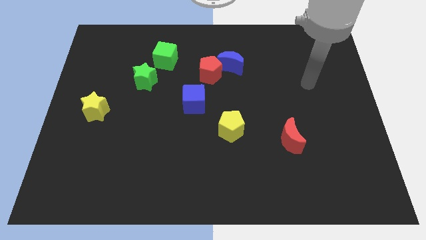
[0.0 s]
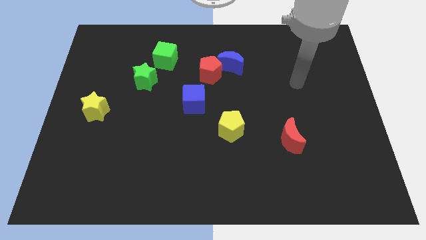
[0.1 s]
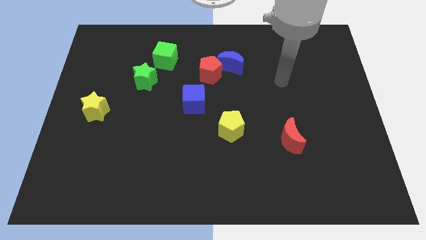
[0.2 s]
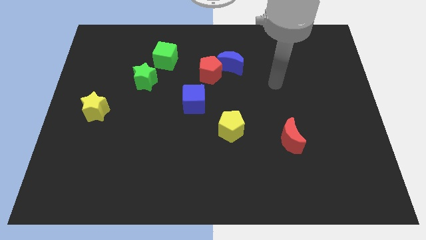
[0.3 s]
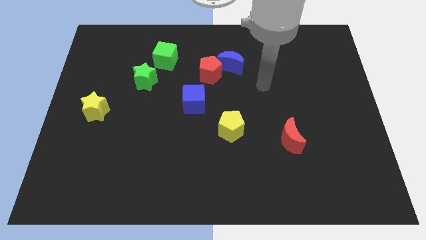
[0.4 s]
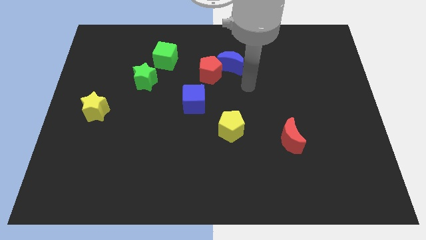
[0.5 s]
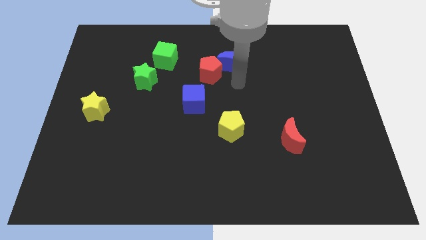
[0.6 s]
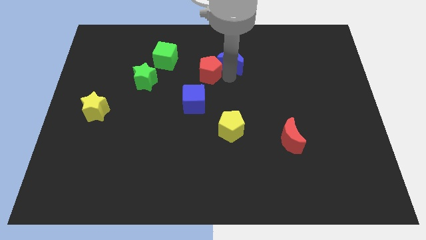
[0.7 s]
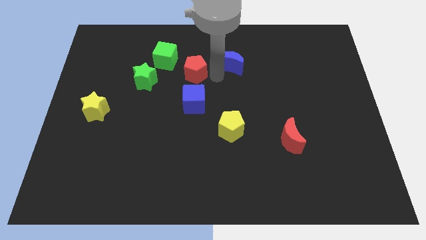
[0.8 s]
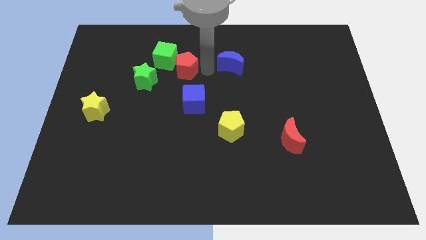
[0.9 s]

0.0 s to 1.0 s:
pull the blue moon apart from the red pentagon

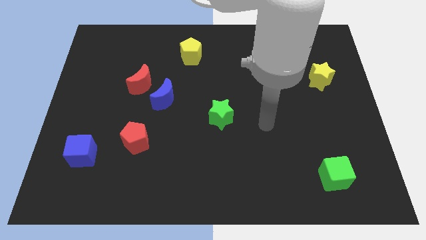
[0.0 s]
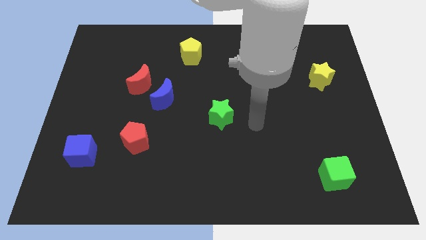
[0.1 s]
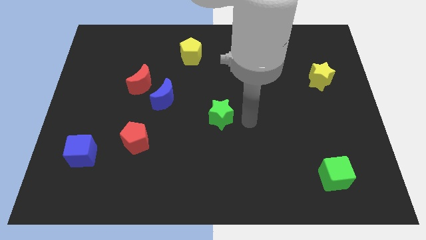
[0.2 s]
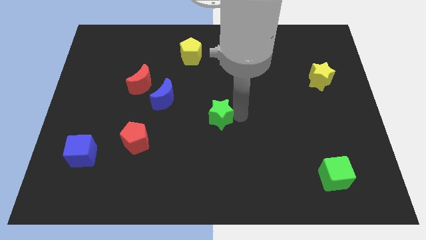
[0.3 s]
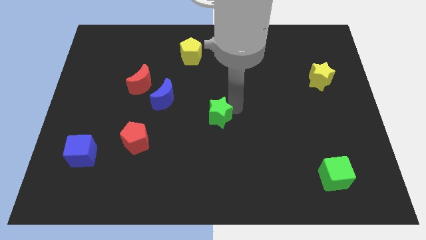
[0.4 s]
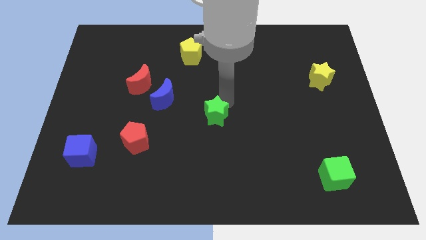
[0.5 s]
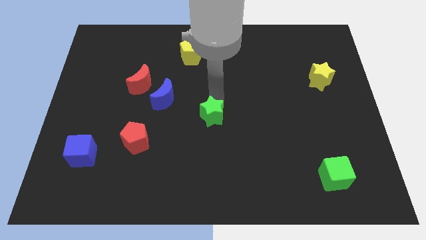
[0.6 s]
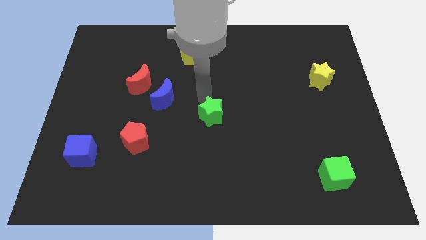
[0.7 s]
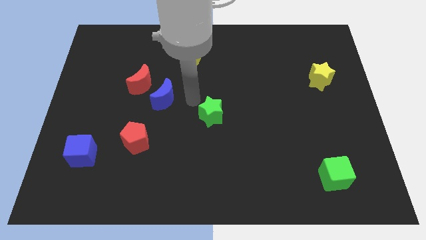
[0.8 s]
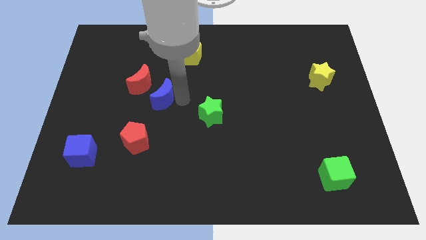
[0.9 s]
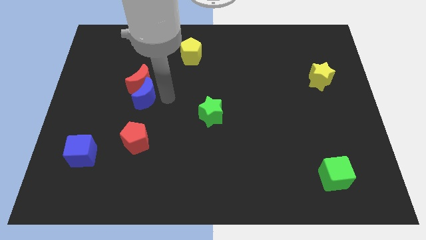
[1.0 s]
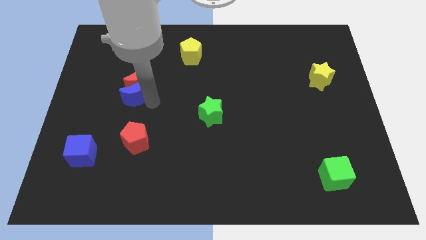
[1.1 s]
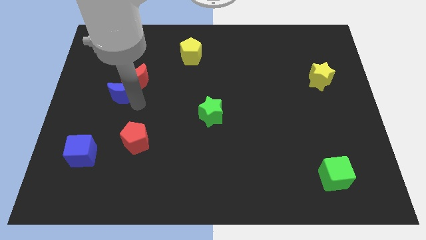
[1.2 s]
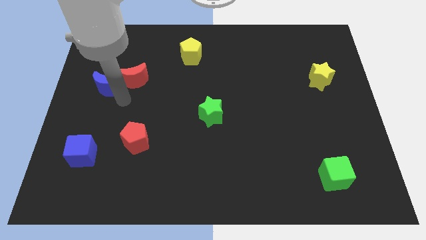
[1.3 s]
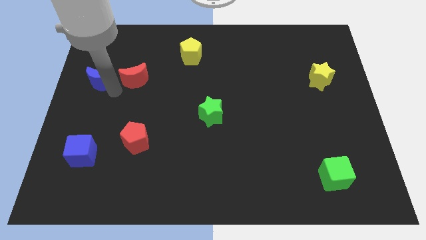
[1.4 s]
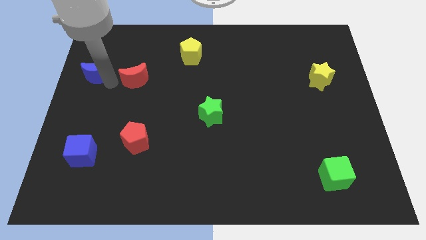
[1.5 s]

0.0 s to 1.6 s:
pull the red moon apart from the blue moon

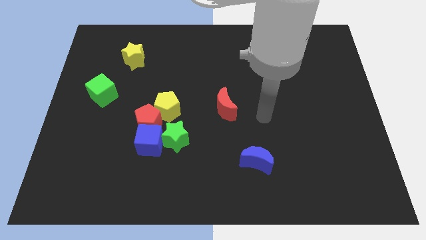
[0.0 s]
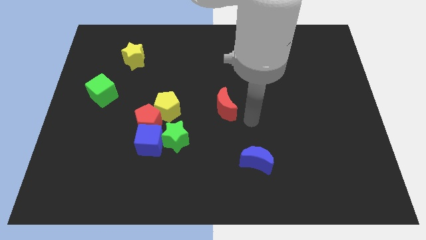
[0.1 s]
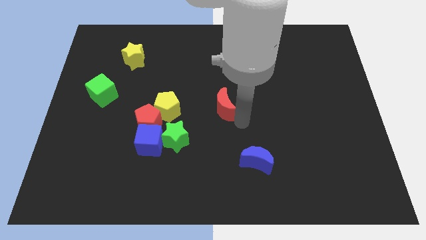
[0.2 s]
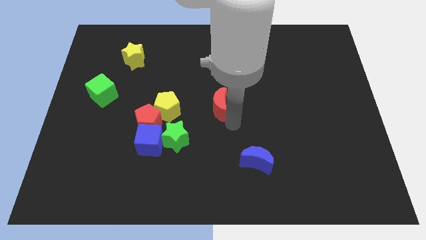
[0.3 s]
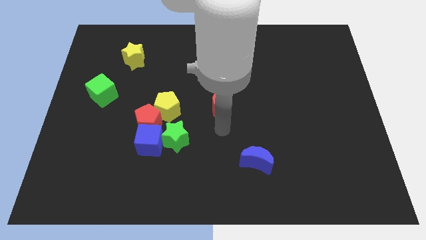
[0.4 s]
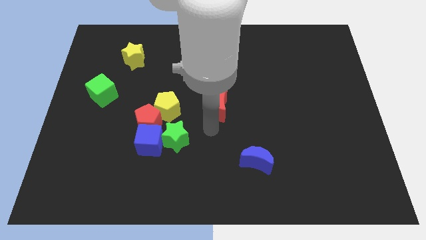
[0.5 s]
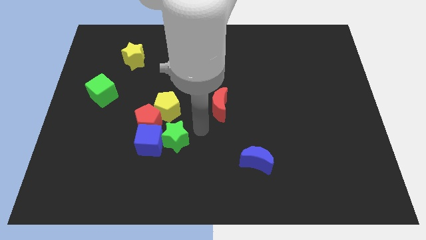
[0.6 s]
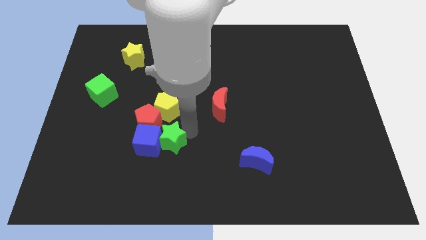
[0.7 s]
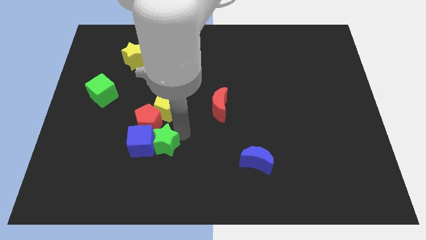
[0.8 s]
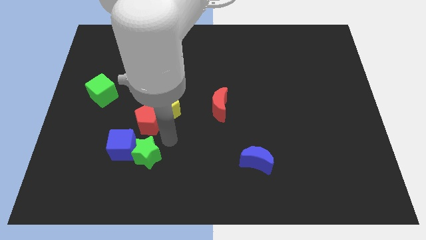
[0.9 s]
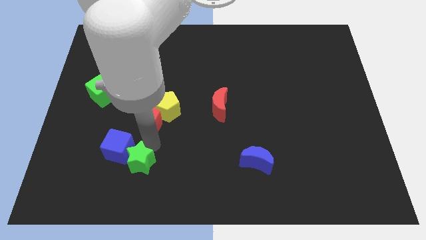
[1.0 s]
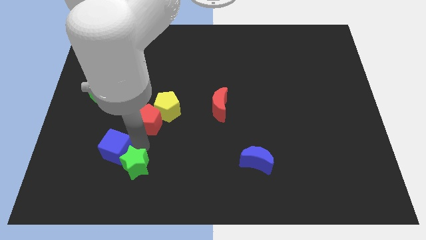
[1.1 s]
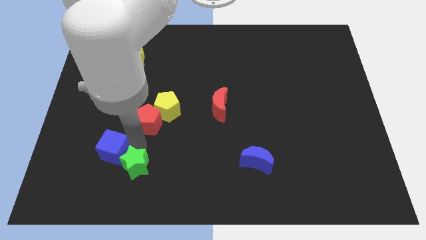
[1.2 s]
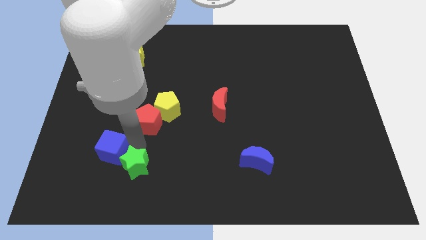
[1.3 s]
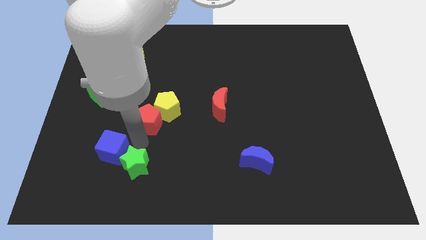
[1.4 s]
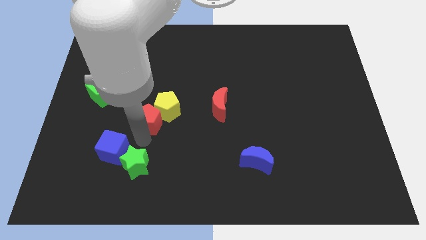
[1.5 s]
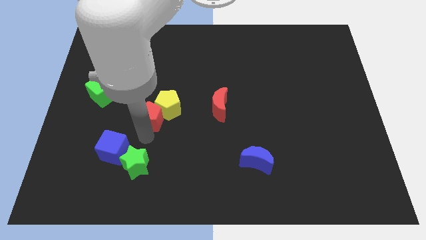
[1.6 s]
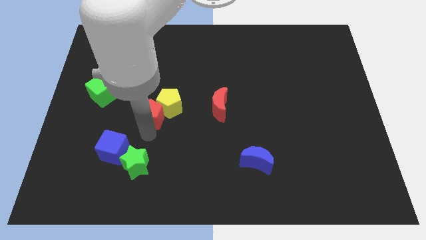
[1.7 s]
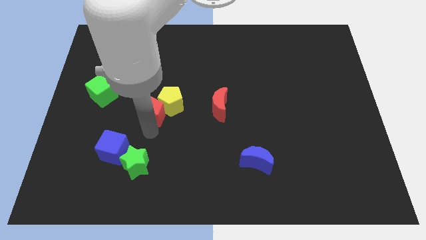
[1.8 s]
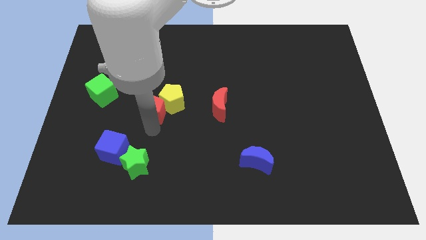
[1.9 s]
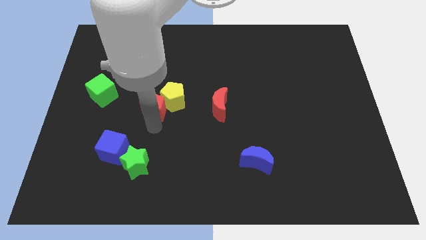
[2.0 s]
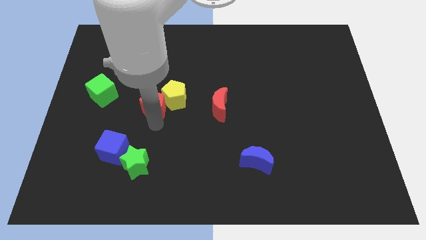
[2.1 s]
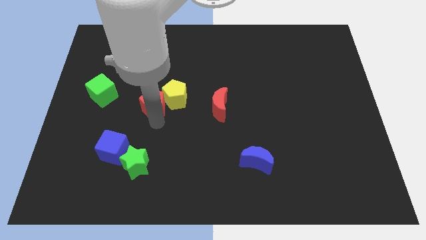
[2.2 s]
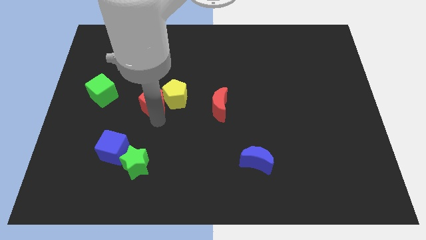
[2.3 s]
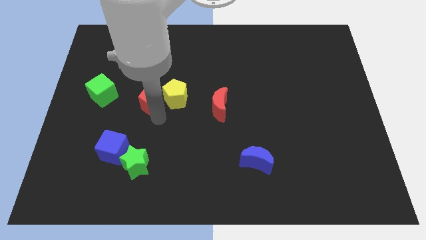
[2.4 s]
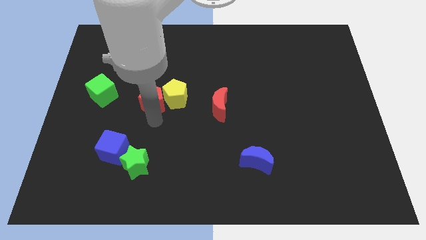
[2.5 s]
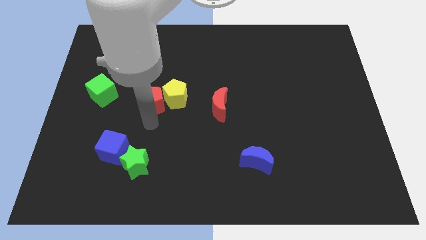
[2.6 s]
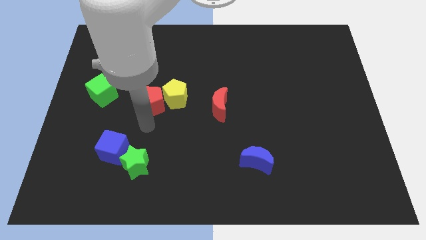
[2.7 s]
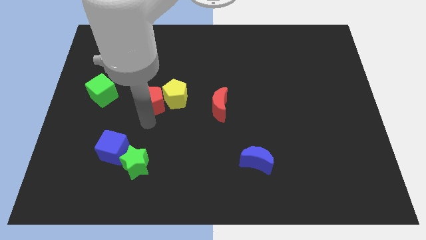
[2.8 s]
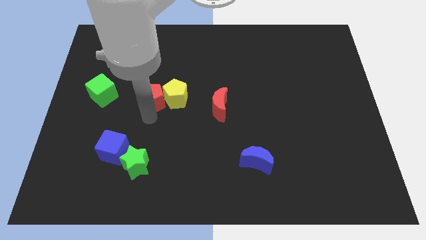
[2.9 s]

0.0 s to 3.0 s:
separate the red pentagon from the yellow pentagon, blue cube, and green star

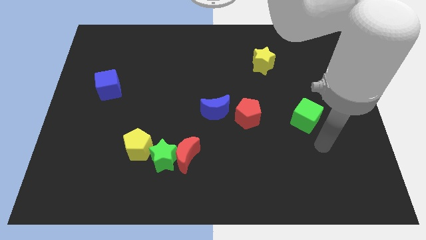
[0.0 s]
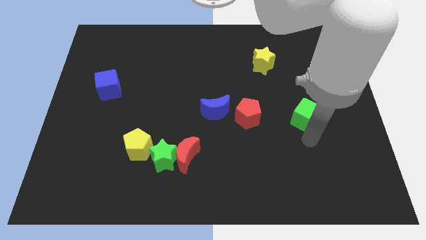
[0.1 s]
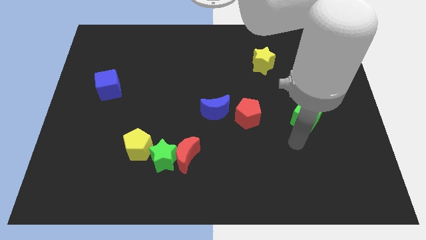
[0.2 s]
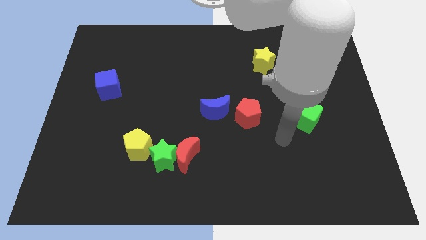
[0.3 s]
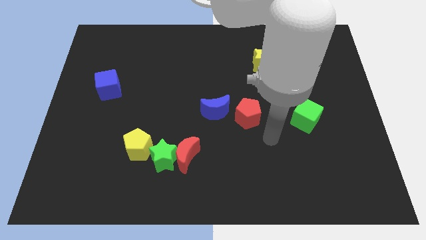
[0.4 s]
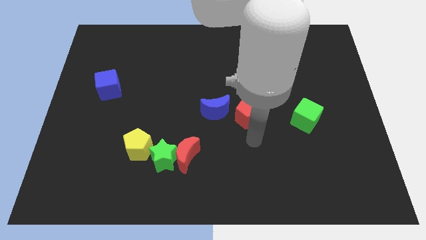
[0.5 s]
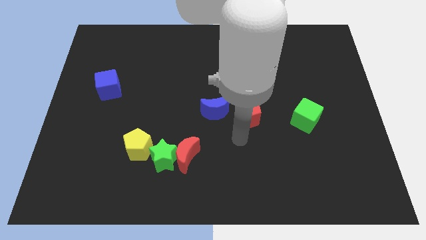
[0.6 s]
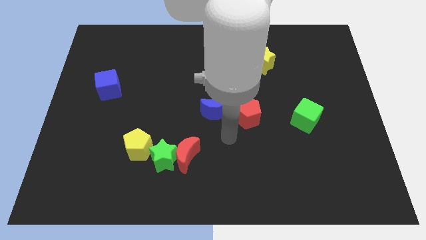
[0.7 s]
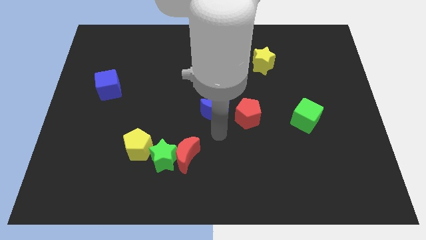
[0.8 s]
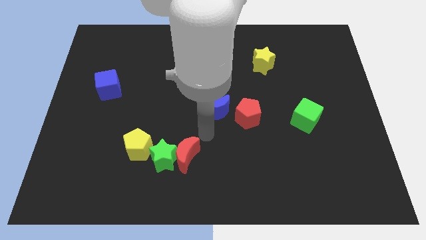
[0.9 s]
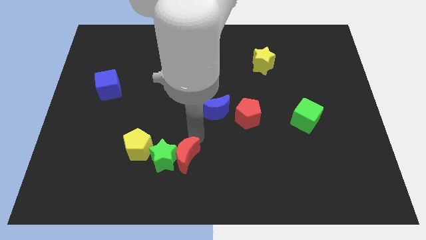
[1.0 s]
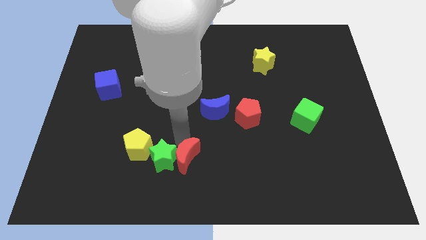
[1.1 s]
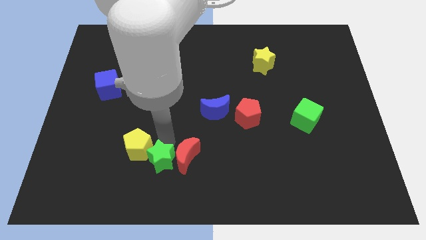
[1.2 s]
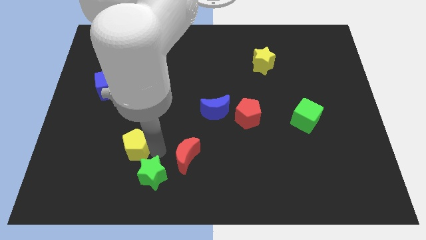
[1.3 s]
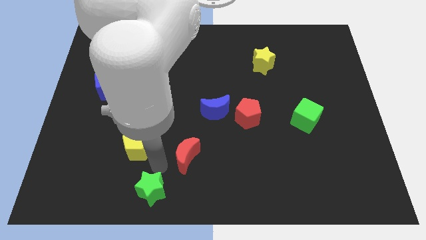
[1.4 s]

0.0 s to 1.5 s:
separate the red moon from the green star

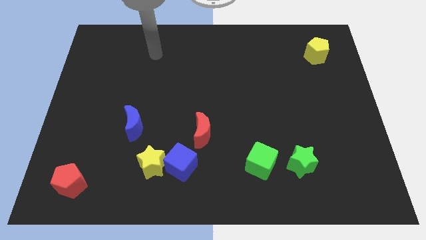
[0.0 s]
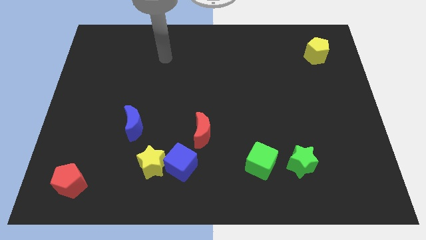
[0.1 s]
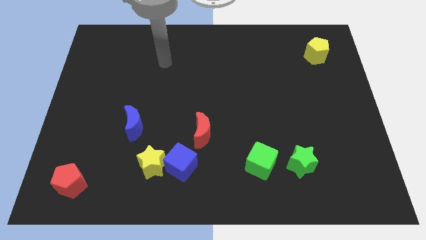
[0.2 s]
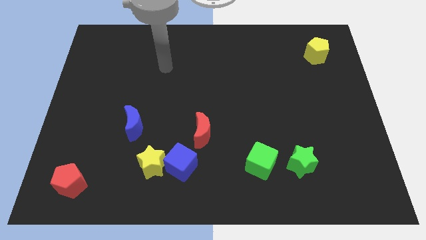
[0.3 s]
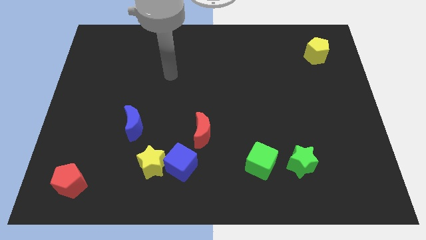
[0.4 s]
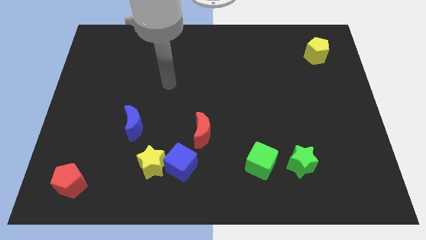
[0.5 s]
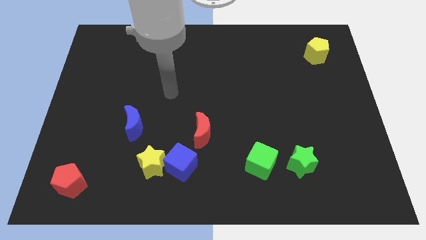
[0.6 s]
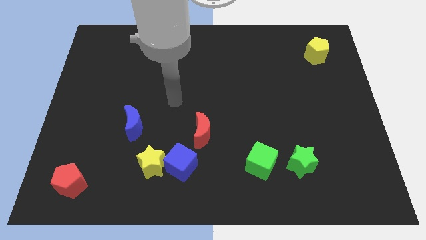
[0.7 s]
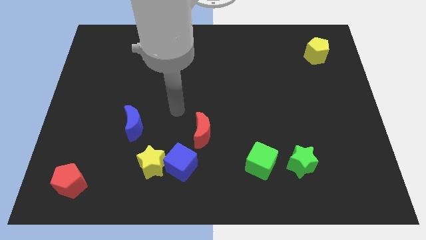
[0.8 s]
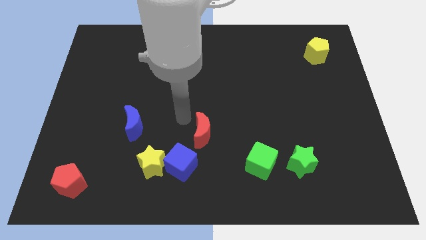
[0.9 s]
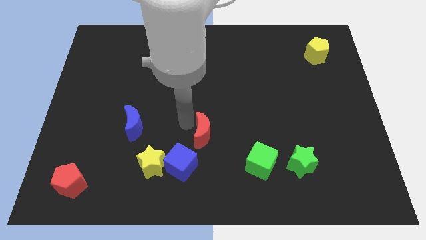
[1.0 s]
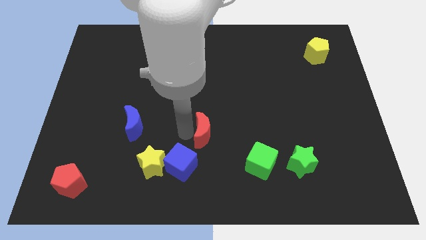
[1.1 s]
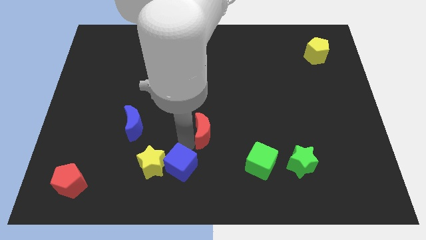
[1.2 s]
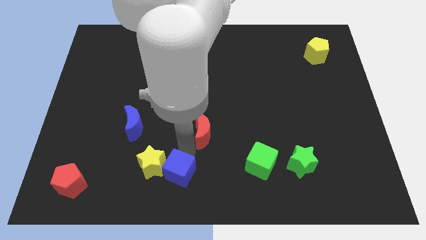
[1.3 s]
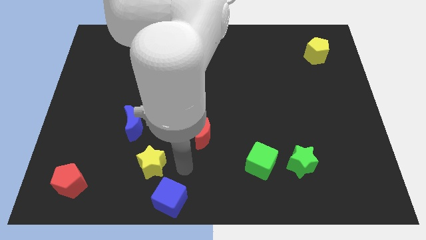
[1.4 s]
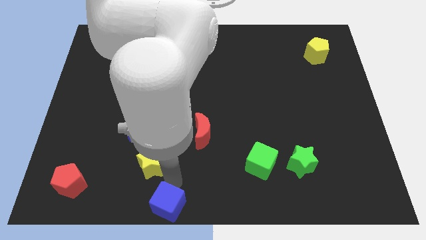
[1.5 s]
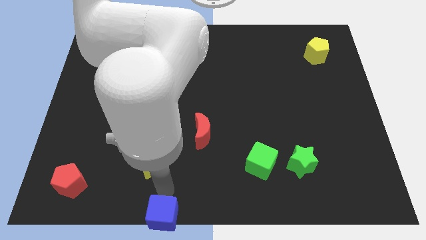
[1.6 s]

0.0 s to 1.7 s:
separate the yellow star from the blue cube

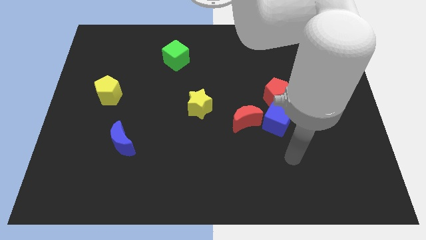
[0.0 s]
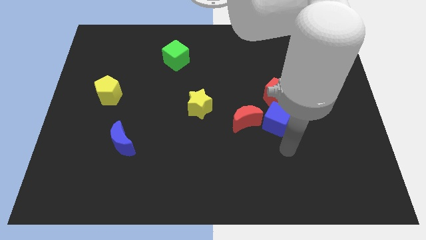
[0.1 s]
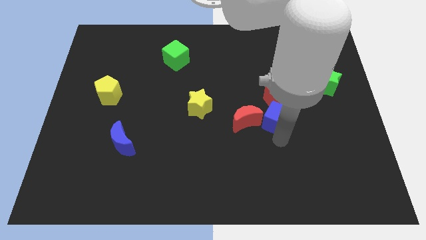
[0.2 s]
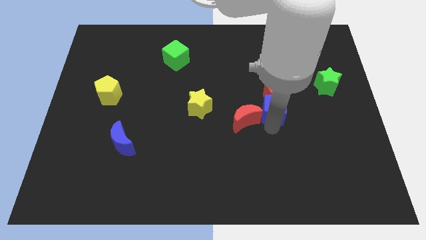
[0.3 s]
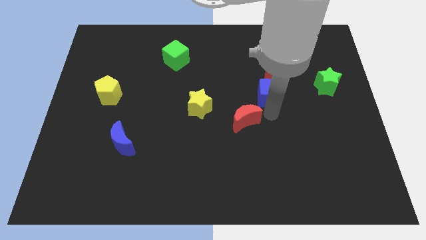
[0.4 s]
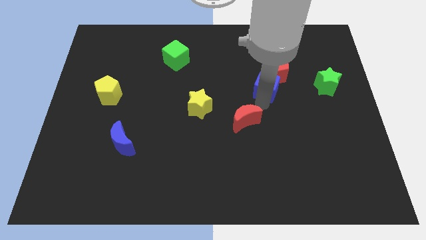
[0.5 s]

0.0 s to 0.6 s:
move the red moon away from the blue cube

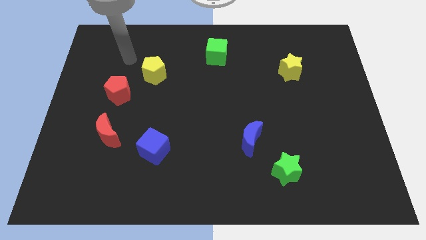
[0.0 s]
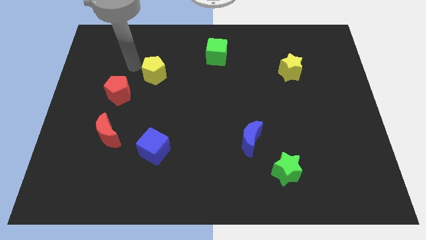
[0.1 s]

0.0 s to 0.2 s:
pull the blue moon apart from the green star
